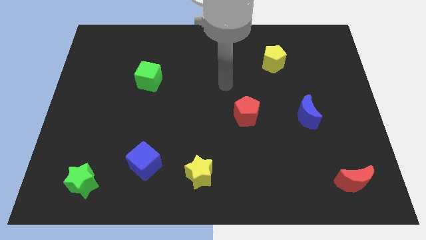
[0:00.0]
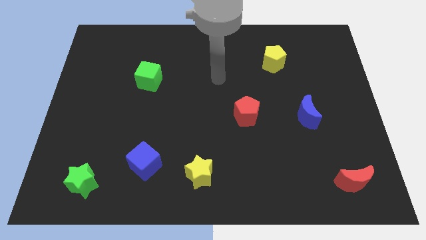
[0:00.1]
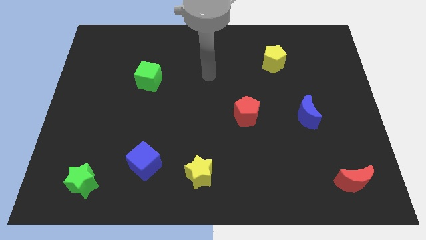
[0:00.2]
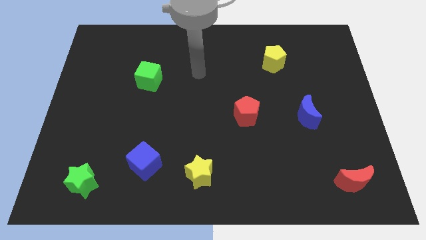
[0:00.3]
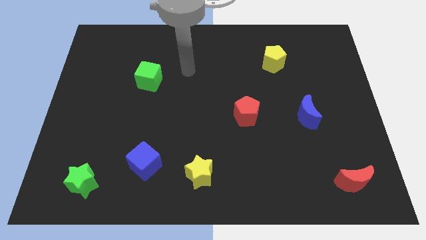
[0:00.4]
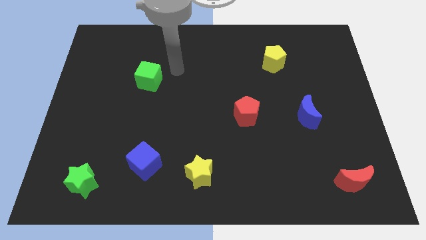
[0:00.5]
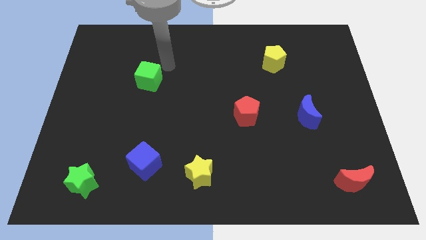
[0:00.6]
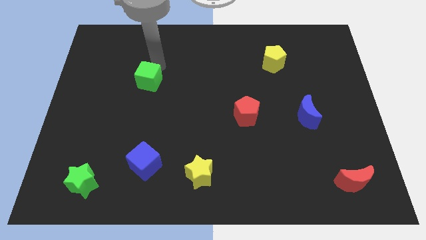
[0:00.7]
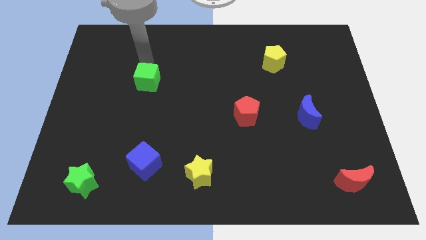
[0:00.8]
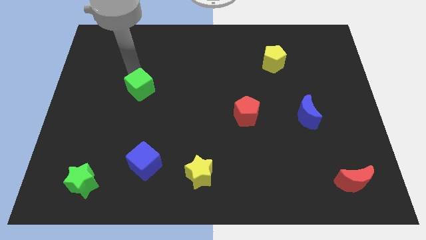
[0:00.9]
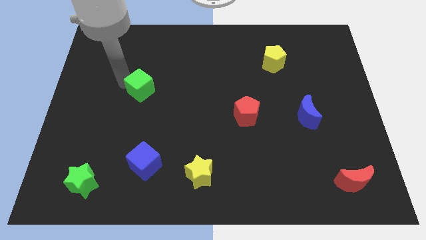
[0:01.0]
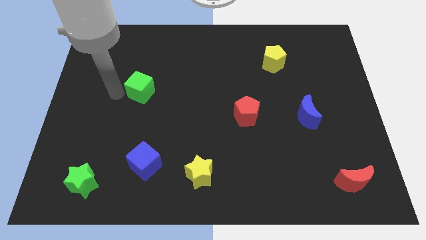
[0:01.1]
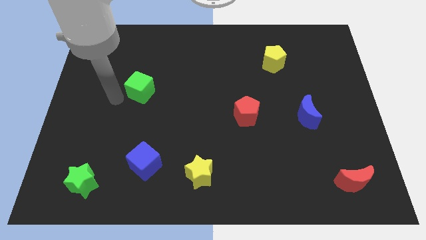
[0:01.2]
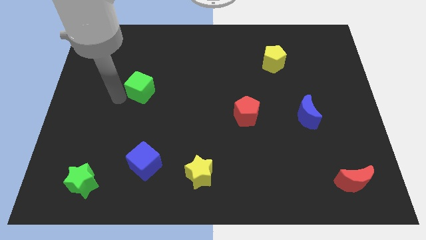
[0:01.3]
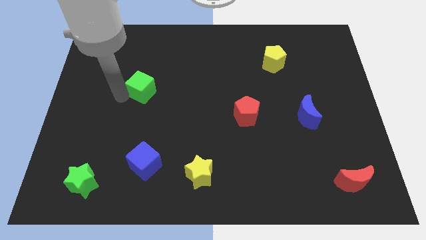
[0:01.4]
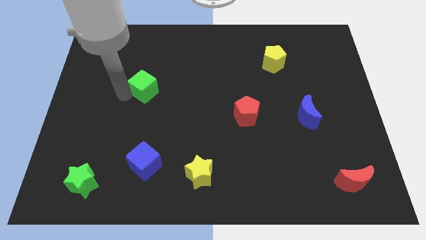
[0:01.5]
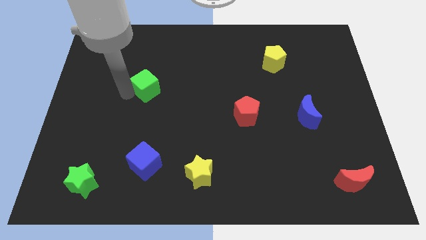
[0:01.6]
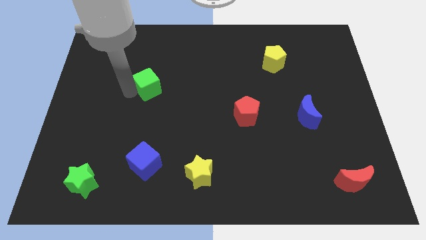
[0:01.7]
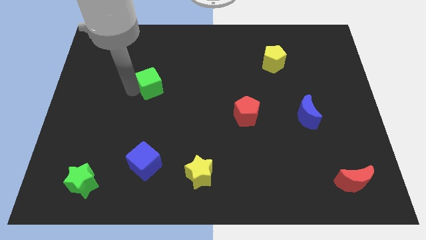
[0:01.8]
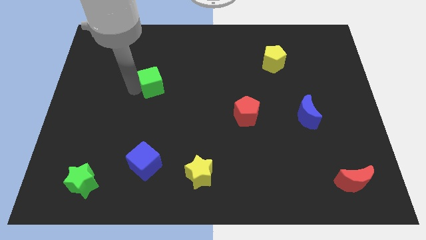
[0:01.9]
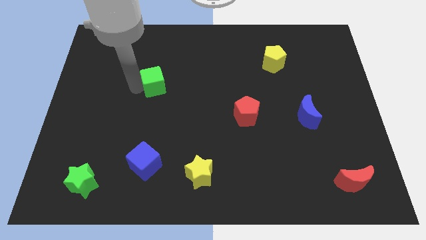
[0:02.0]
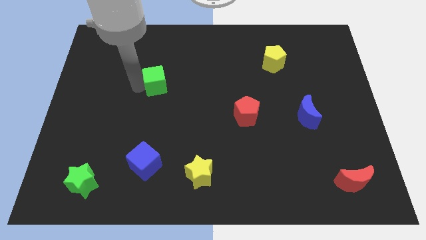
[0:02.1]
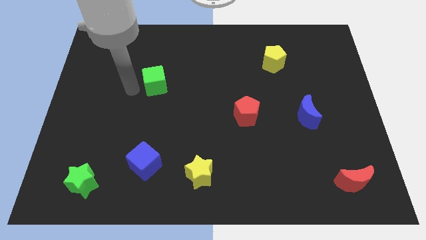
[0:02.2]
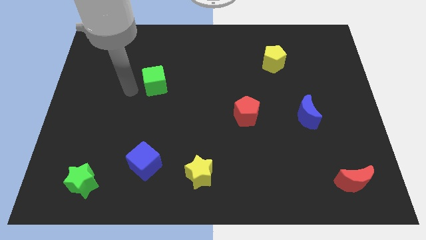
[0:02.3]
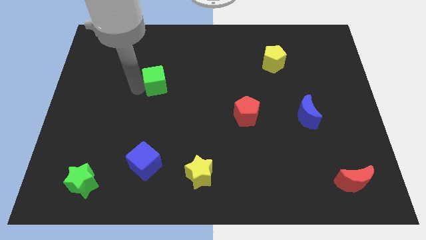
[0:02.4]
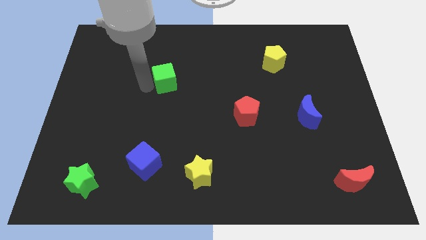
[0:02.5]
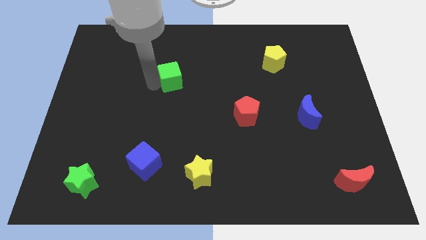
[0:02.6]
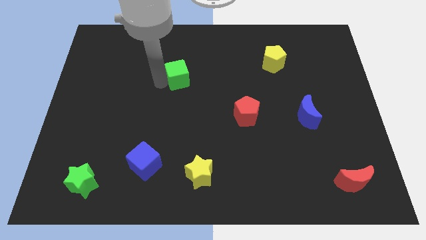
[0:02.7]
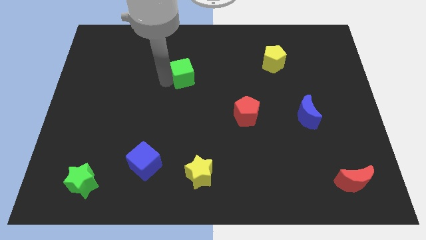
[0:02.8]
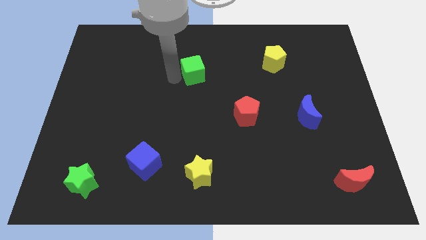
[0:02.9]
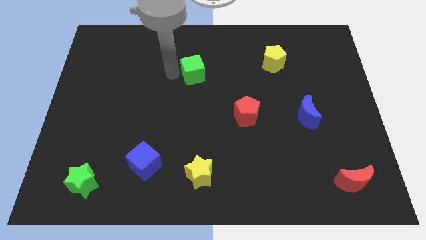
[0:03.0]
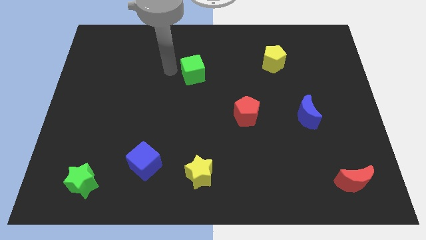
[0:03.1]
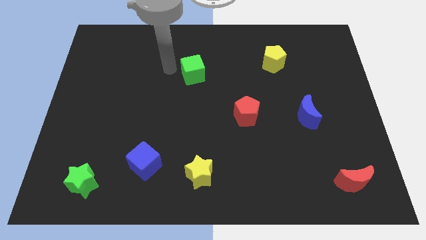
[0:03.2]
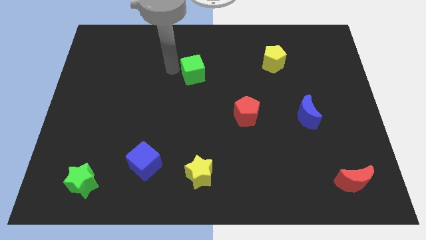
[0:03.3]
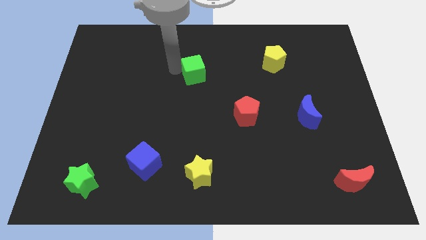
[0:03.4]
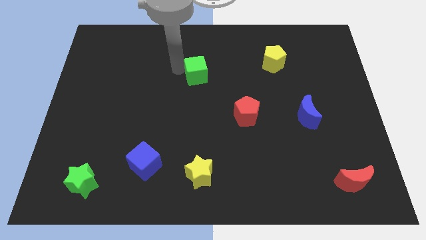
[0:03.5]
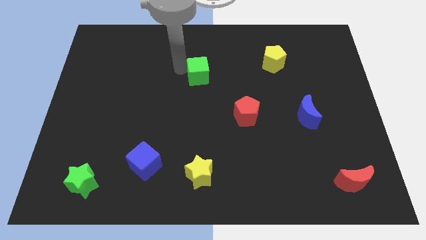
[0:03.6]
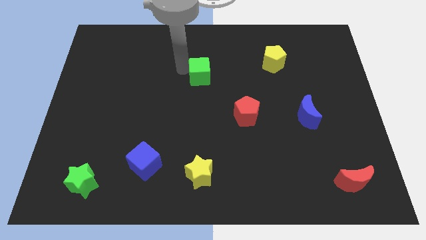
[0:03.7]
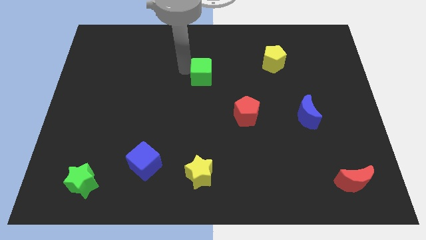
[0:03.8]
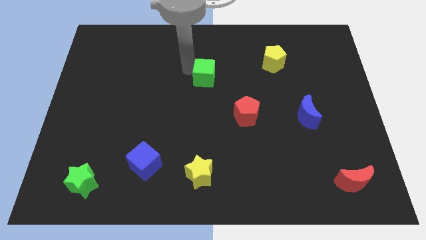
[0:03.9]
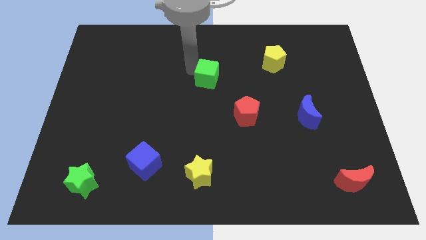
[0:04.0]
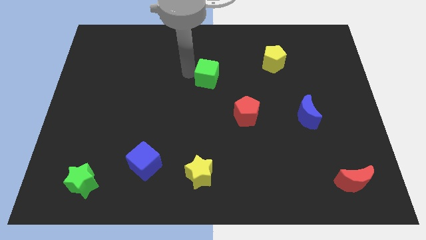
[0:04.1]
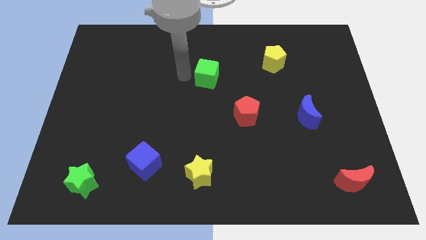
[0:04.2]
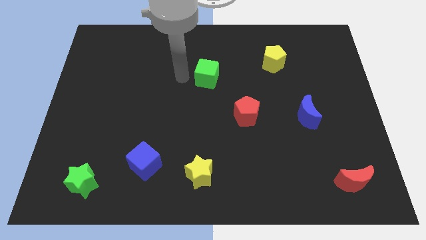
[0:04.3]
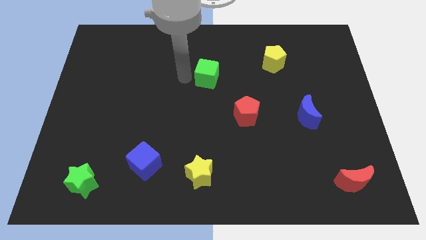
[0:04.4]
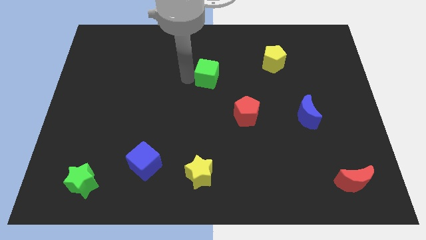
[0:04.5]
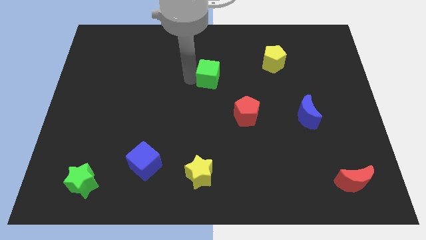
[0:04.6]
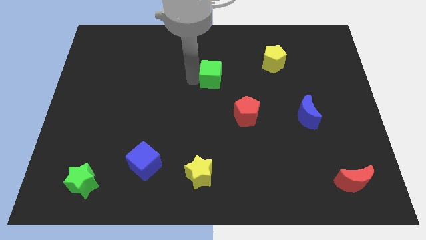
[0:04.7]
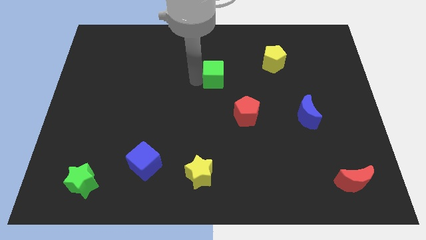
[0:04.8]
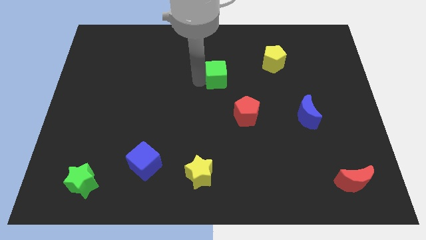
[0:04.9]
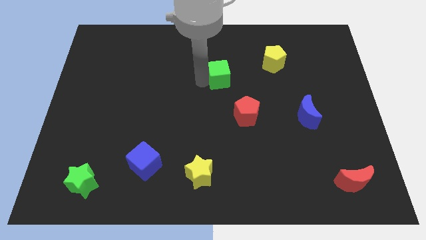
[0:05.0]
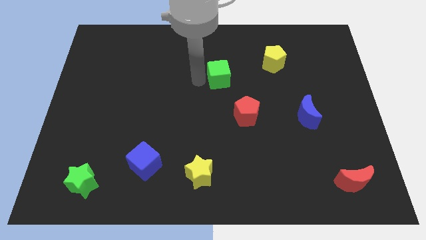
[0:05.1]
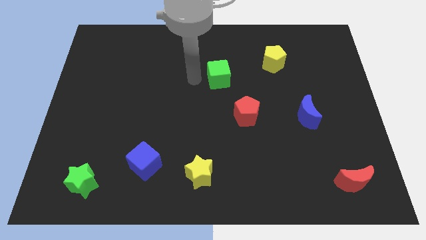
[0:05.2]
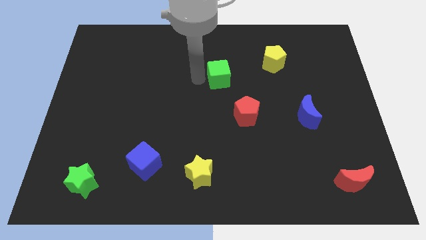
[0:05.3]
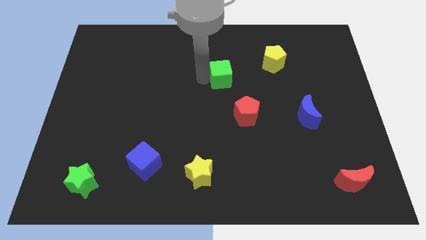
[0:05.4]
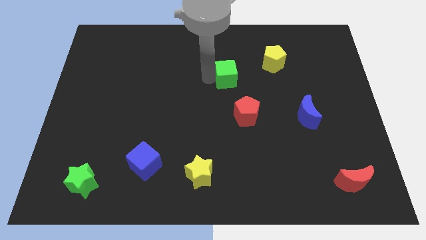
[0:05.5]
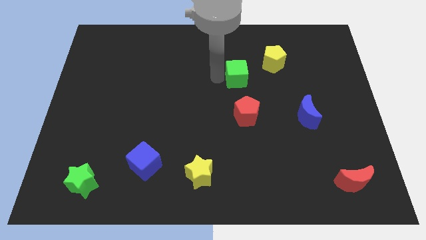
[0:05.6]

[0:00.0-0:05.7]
slide the green cube right

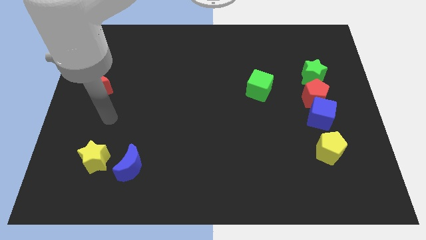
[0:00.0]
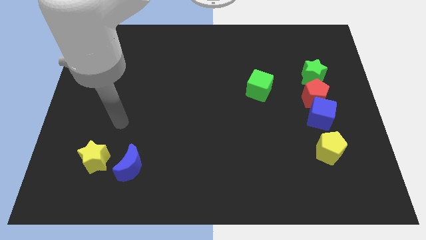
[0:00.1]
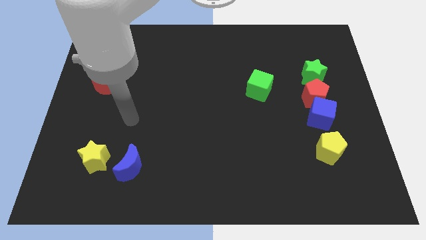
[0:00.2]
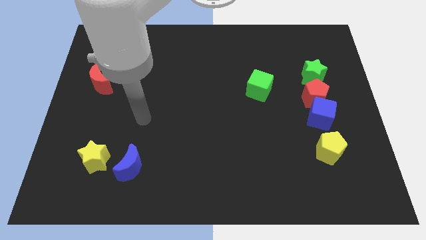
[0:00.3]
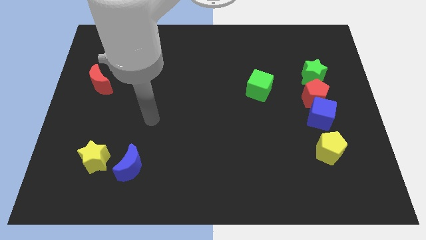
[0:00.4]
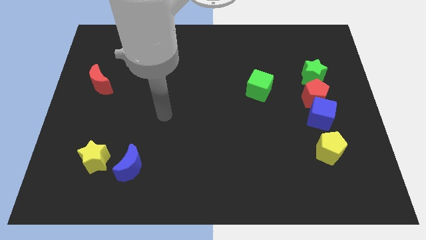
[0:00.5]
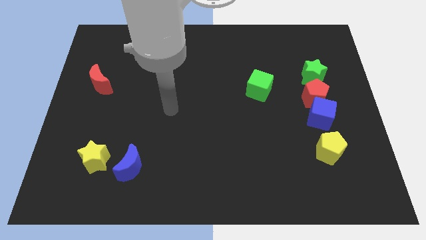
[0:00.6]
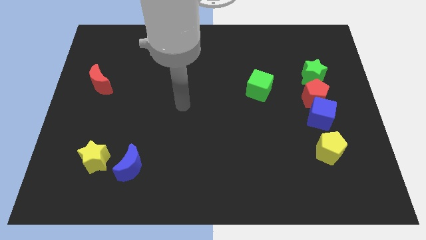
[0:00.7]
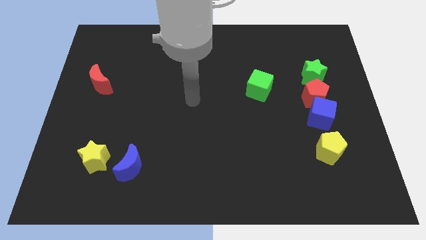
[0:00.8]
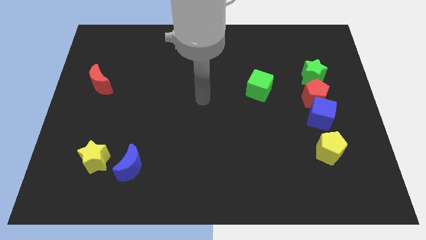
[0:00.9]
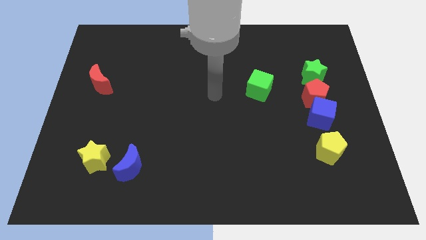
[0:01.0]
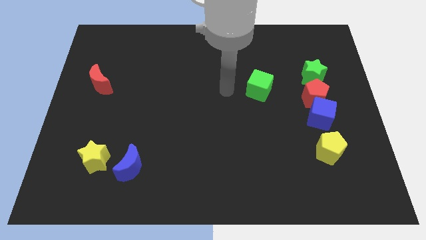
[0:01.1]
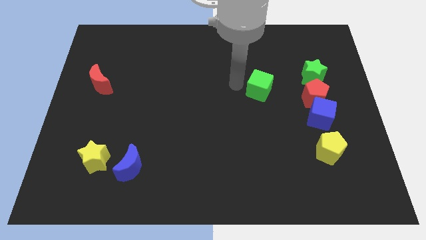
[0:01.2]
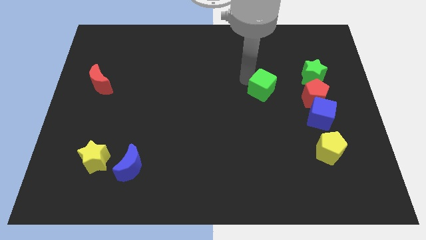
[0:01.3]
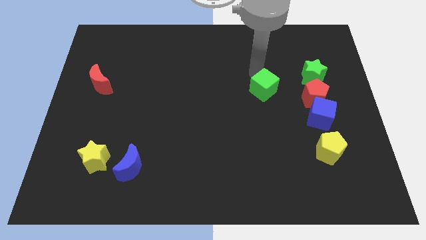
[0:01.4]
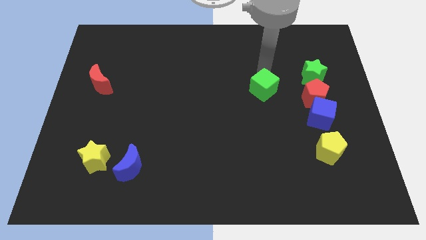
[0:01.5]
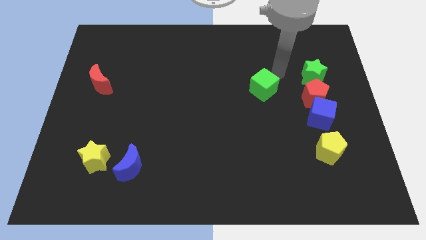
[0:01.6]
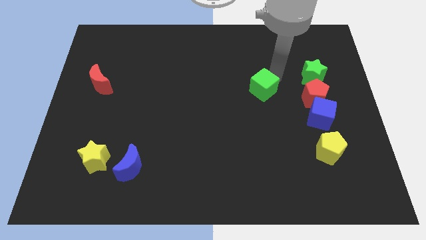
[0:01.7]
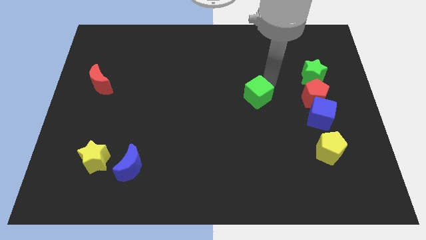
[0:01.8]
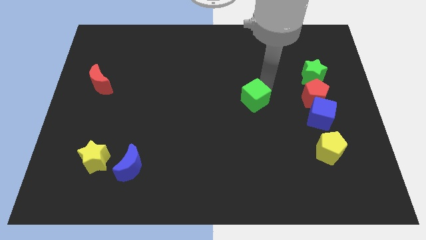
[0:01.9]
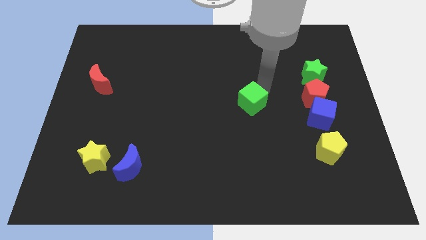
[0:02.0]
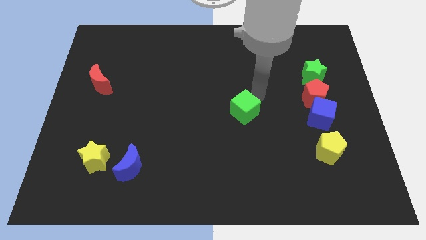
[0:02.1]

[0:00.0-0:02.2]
slightly push the green cube down and to the left

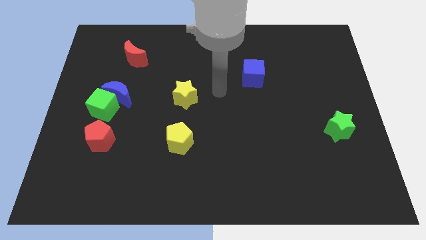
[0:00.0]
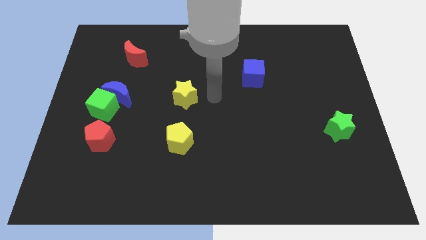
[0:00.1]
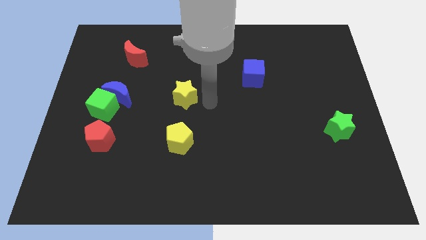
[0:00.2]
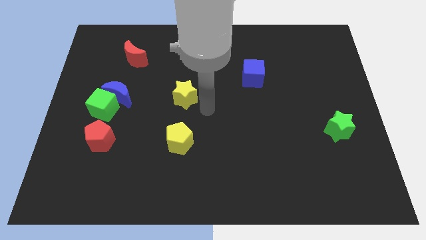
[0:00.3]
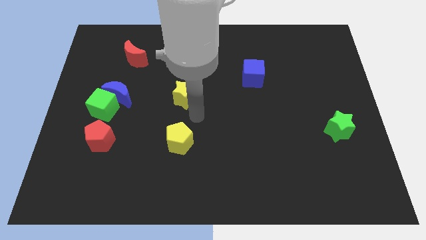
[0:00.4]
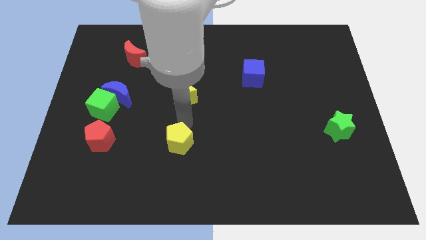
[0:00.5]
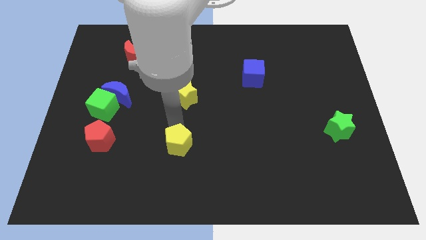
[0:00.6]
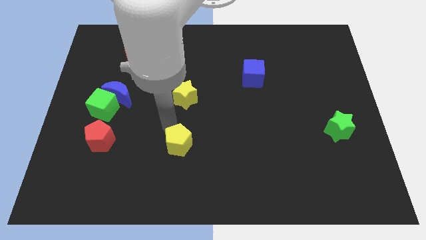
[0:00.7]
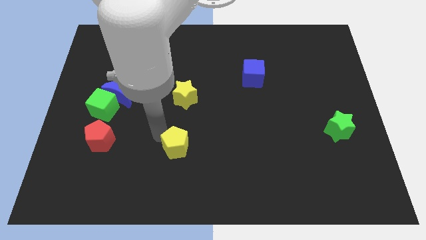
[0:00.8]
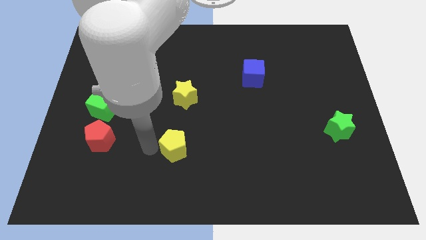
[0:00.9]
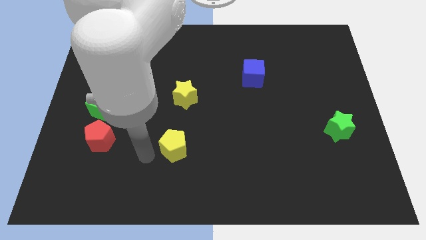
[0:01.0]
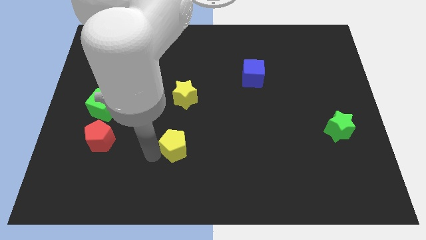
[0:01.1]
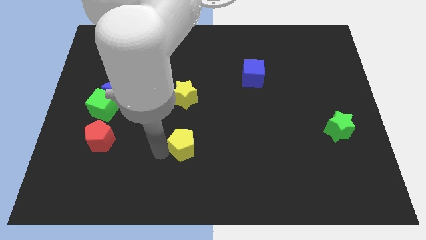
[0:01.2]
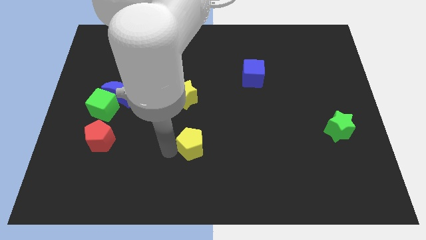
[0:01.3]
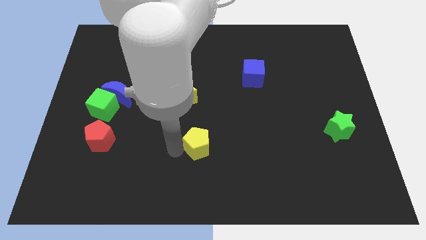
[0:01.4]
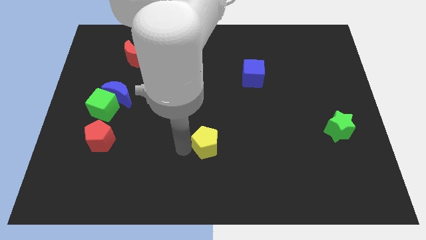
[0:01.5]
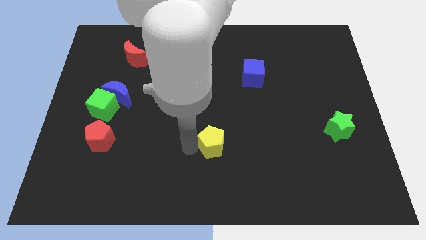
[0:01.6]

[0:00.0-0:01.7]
push the yellow pentagon to the right slightly
